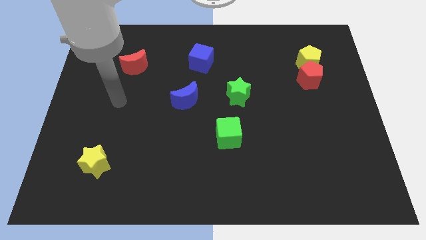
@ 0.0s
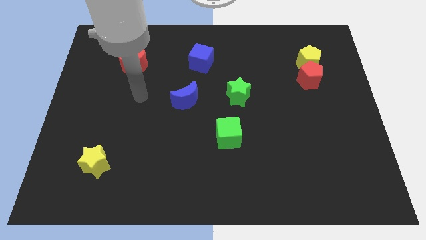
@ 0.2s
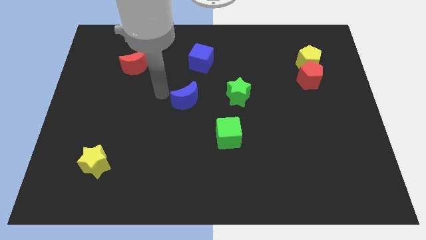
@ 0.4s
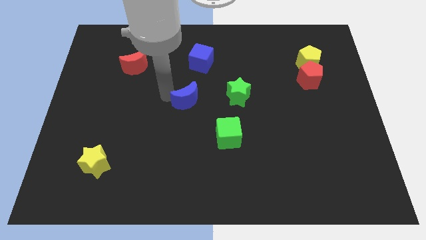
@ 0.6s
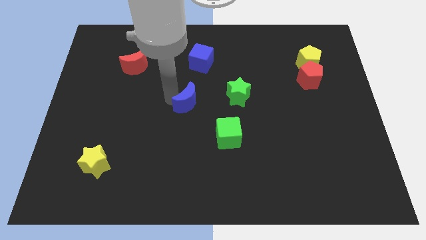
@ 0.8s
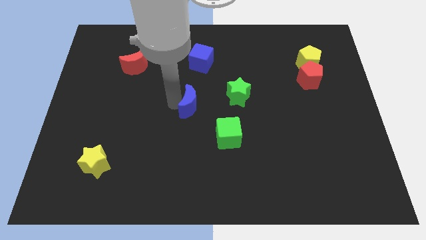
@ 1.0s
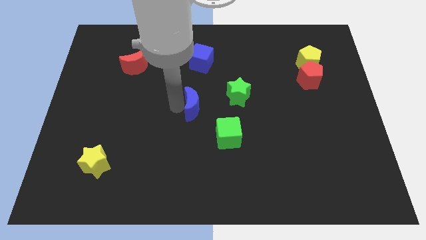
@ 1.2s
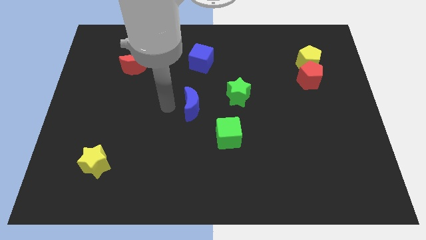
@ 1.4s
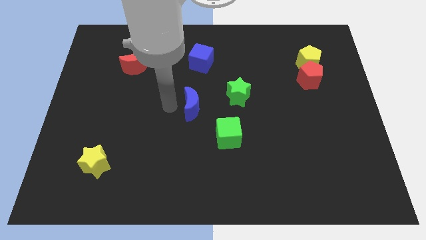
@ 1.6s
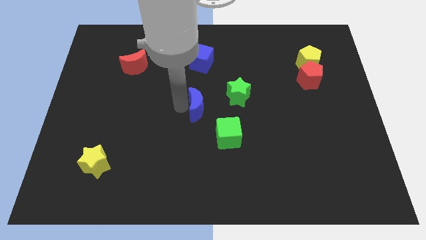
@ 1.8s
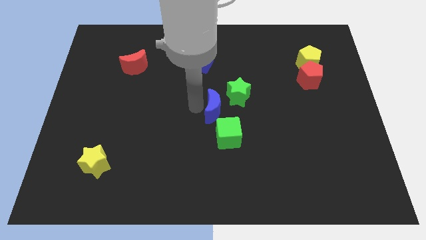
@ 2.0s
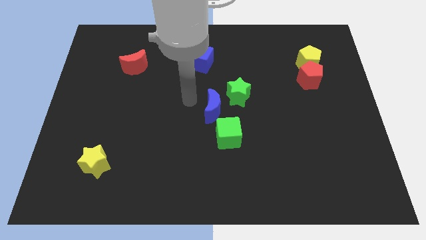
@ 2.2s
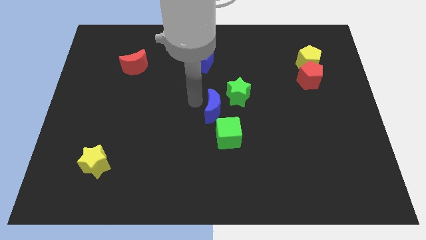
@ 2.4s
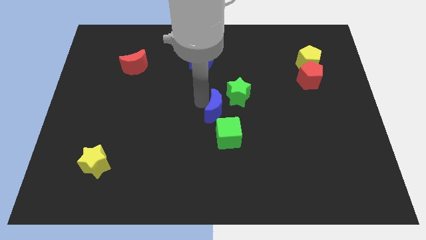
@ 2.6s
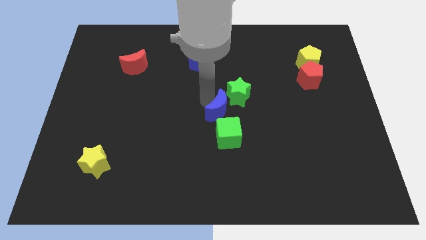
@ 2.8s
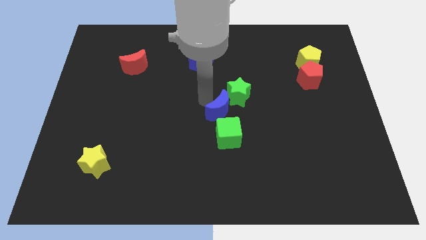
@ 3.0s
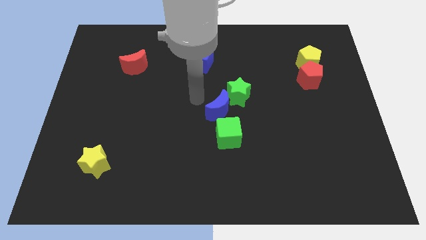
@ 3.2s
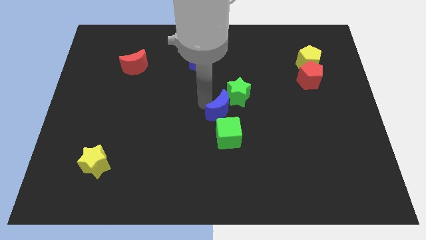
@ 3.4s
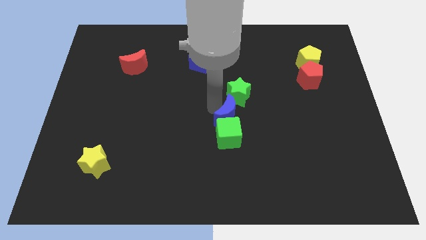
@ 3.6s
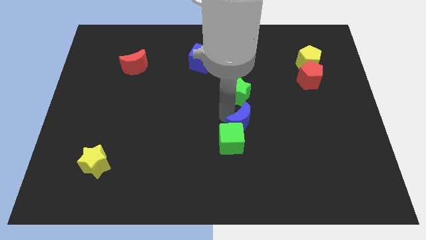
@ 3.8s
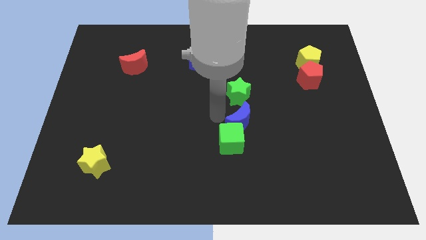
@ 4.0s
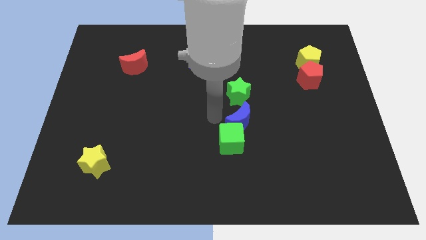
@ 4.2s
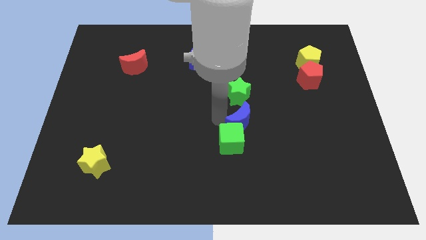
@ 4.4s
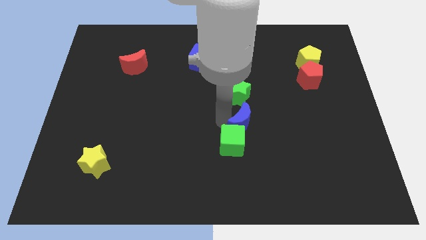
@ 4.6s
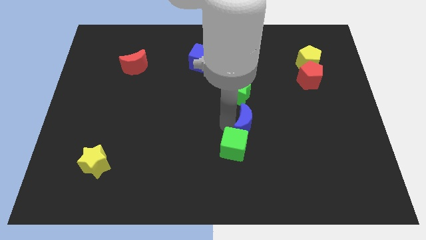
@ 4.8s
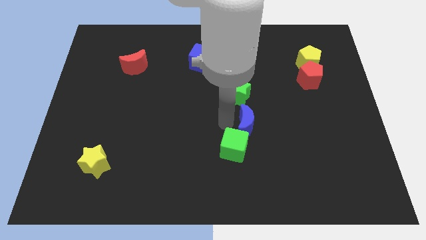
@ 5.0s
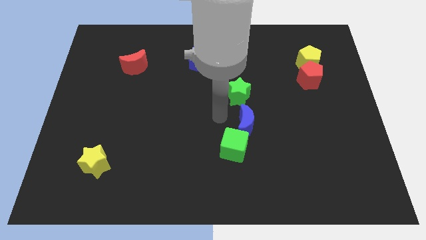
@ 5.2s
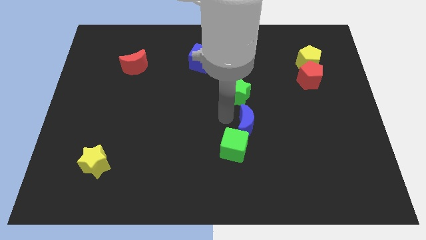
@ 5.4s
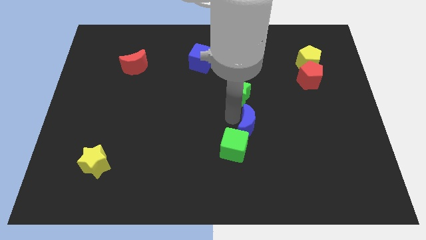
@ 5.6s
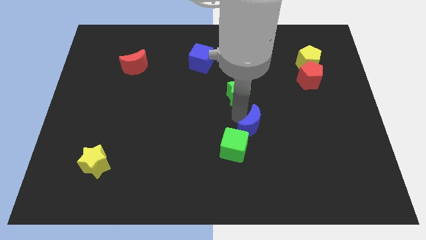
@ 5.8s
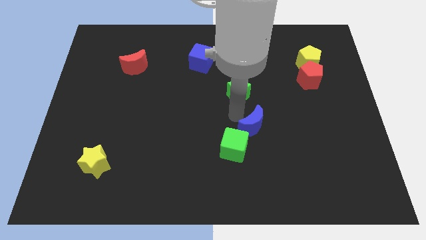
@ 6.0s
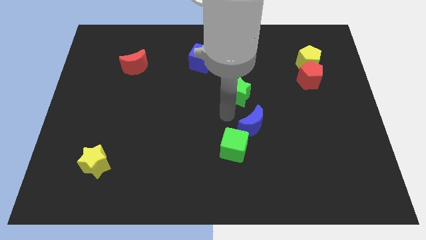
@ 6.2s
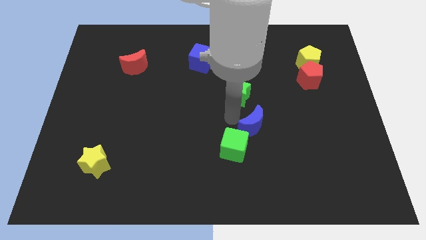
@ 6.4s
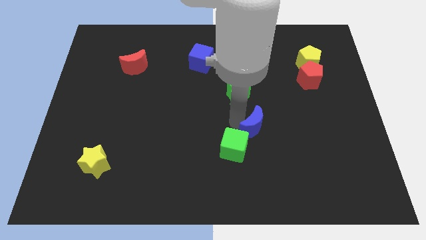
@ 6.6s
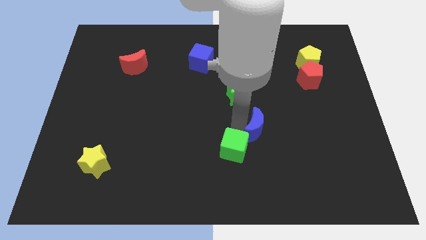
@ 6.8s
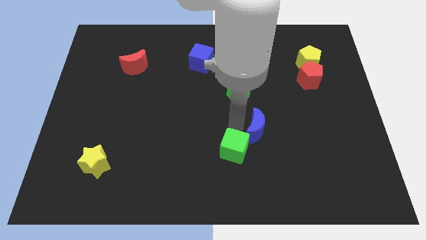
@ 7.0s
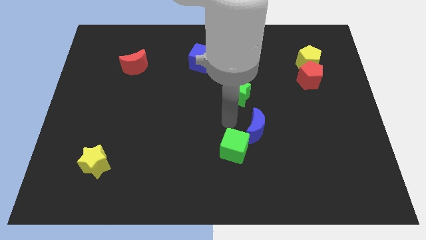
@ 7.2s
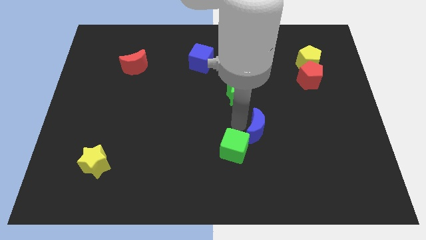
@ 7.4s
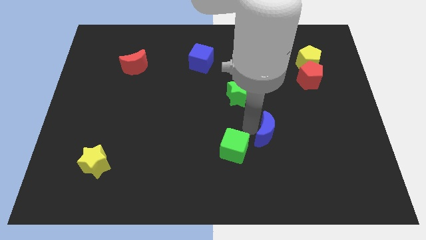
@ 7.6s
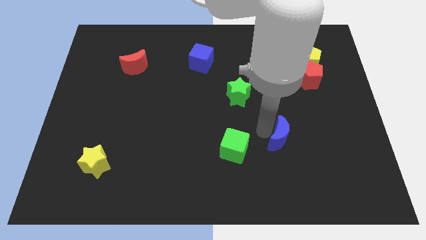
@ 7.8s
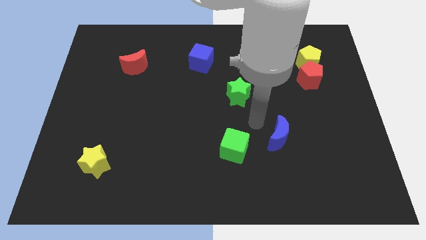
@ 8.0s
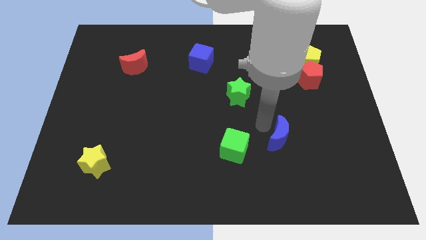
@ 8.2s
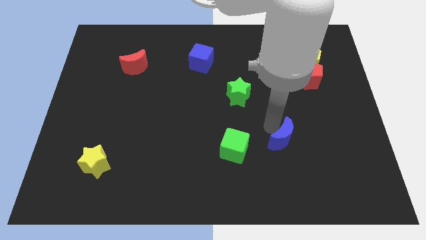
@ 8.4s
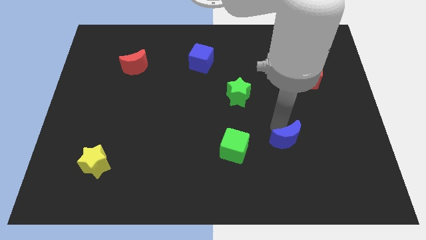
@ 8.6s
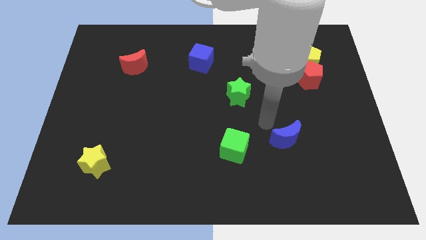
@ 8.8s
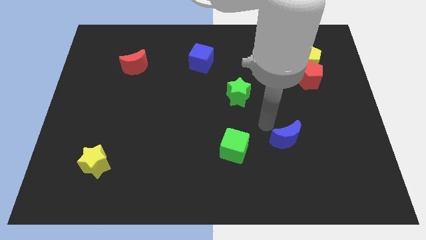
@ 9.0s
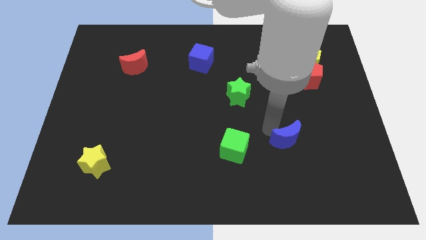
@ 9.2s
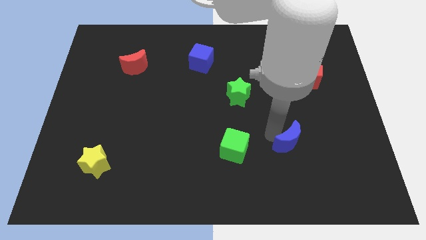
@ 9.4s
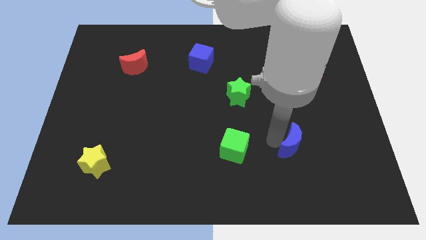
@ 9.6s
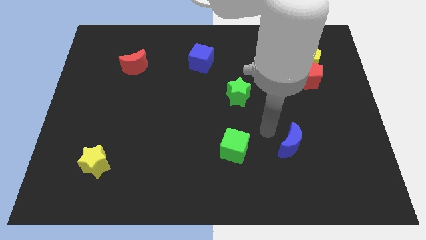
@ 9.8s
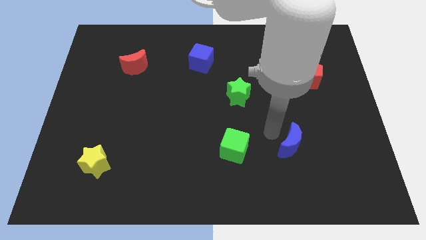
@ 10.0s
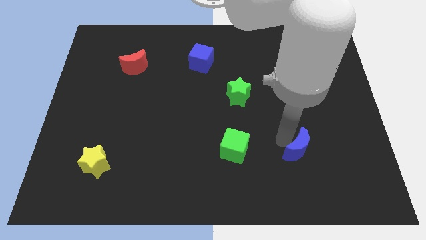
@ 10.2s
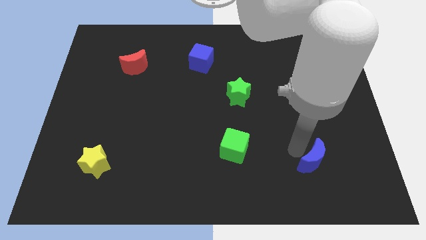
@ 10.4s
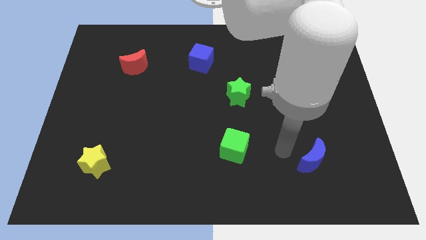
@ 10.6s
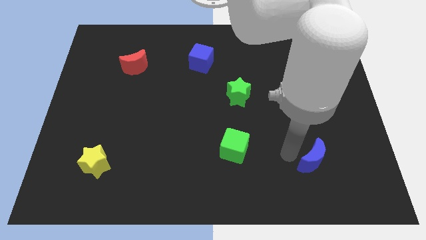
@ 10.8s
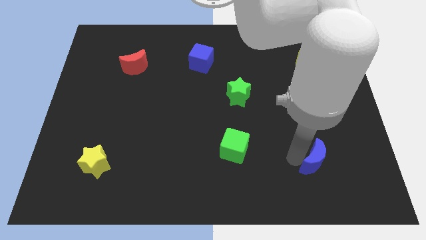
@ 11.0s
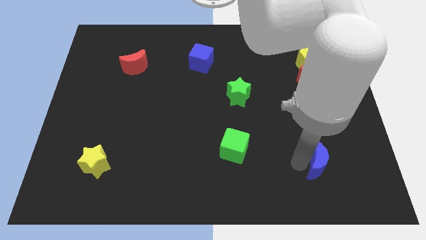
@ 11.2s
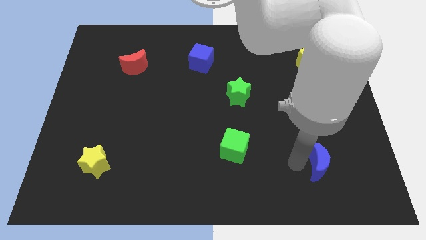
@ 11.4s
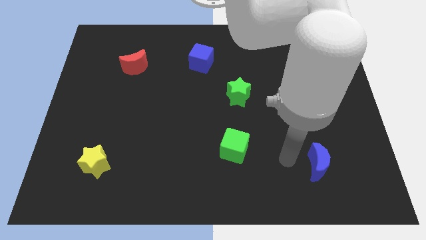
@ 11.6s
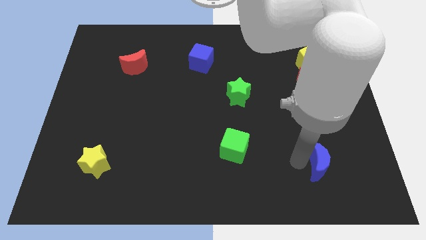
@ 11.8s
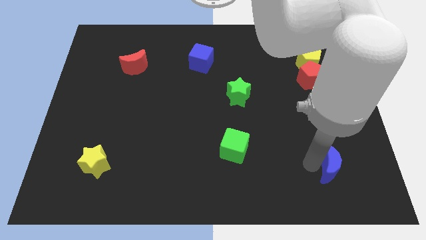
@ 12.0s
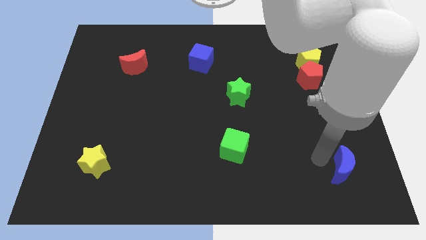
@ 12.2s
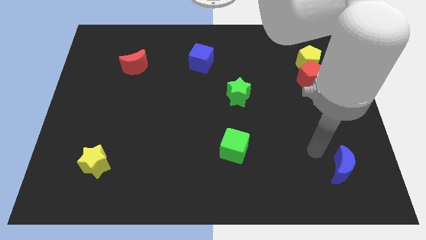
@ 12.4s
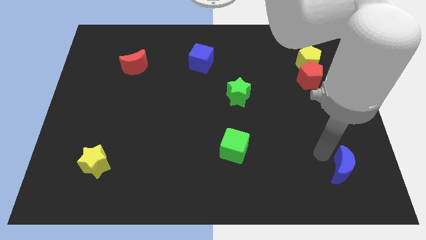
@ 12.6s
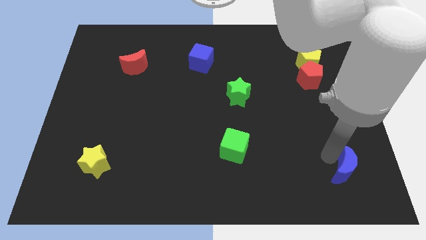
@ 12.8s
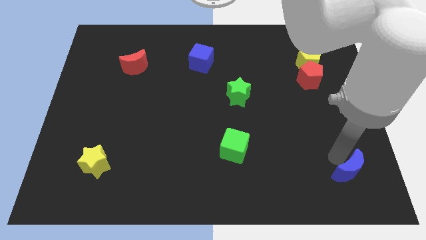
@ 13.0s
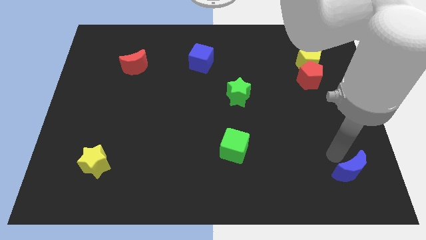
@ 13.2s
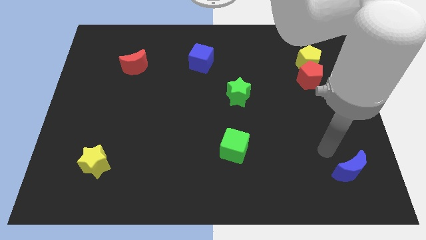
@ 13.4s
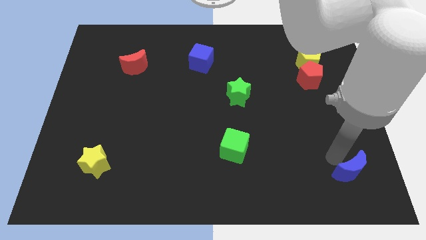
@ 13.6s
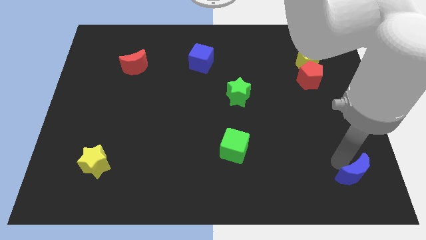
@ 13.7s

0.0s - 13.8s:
push the blue moon to the bottom right corner
